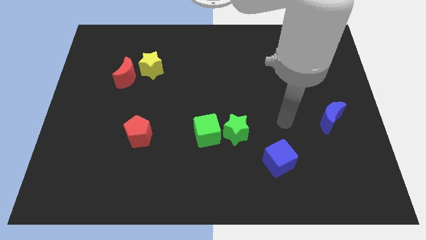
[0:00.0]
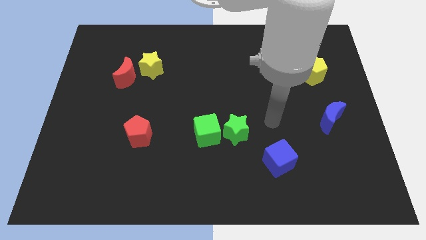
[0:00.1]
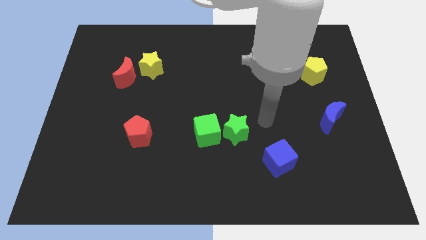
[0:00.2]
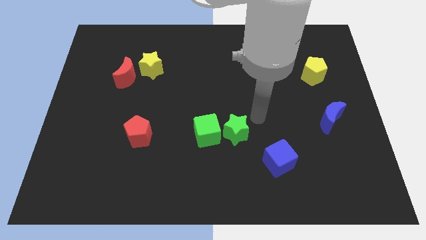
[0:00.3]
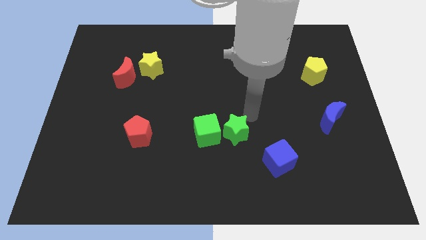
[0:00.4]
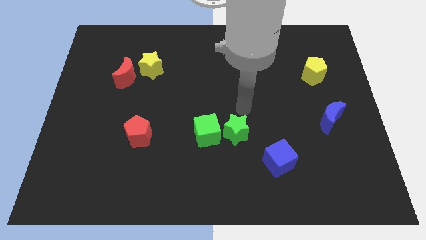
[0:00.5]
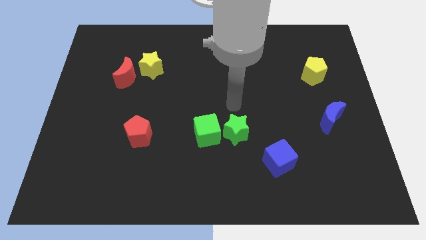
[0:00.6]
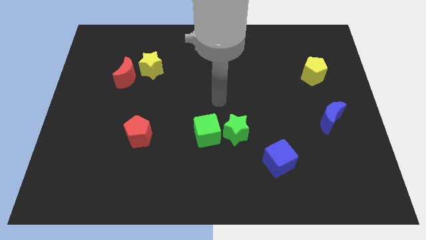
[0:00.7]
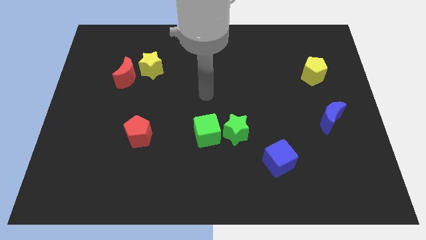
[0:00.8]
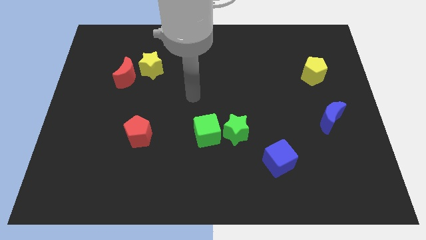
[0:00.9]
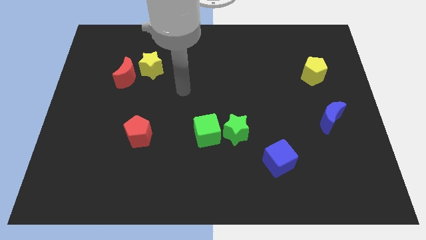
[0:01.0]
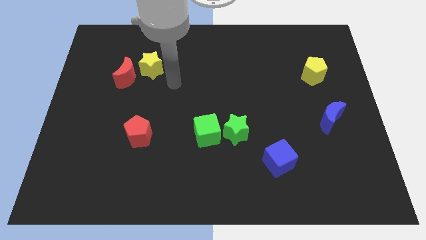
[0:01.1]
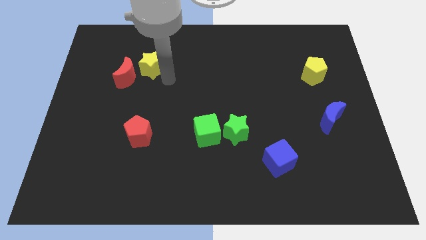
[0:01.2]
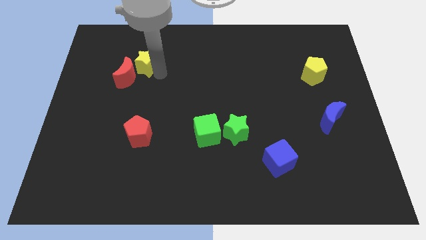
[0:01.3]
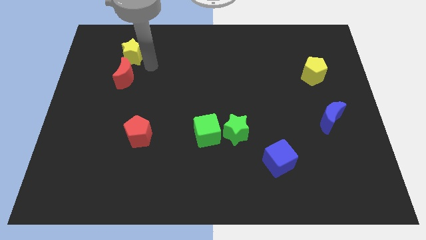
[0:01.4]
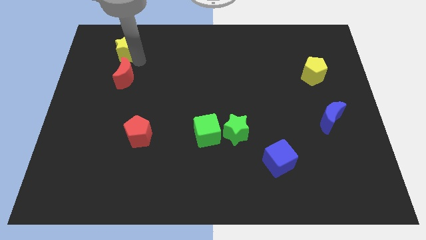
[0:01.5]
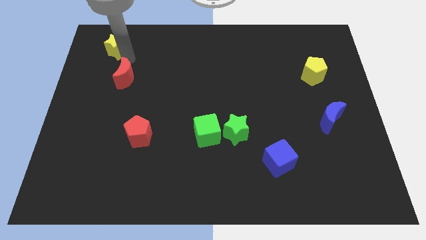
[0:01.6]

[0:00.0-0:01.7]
separate the red moon from the yellow star

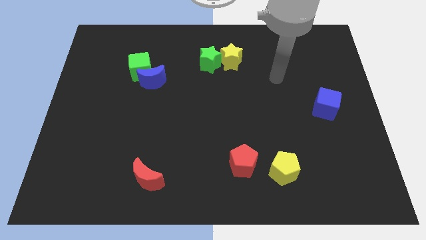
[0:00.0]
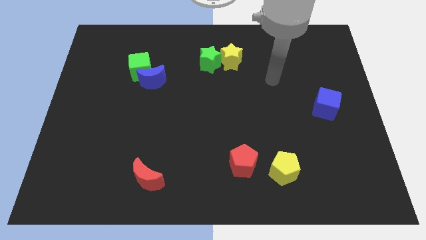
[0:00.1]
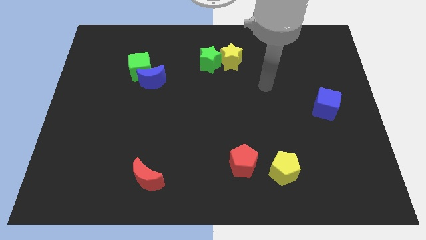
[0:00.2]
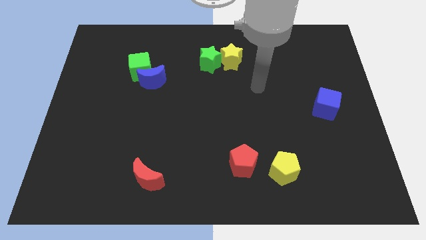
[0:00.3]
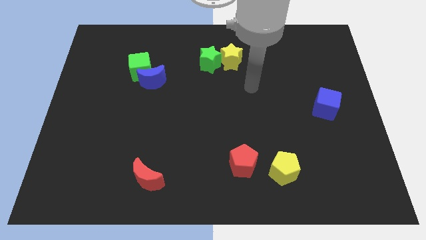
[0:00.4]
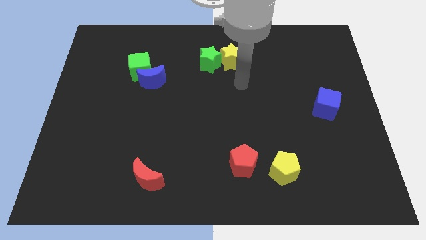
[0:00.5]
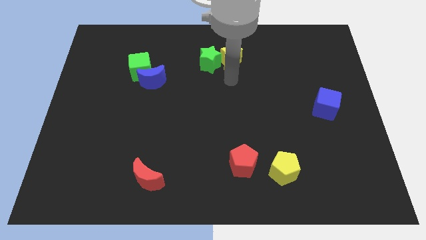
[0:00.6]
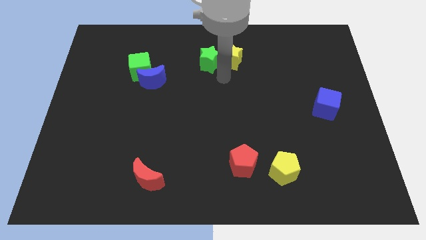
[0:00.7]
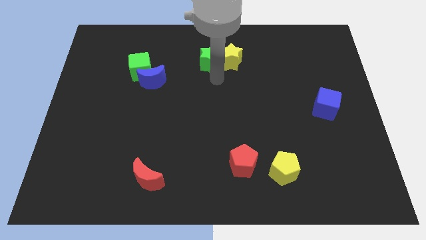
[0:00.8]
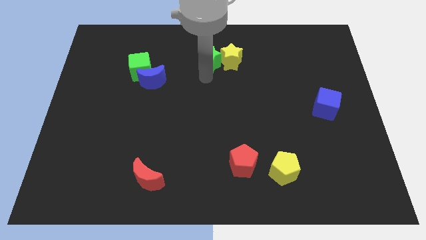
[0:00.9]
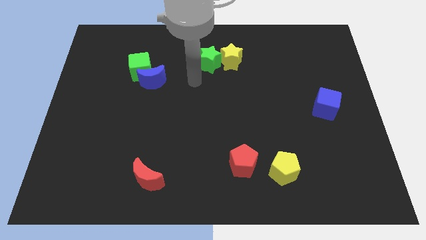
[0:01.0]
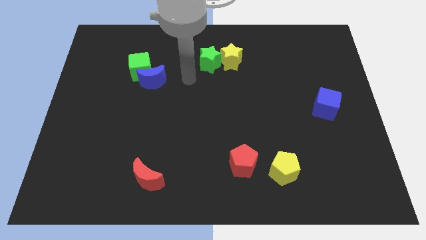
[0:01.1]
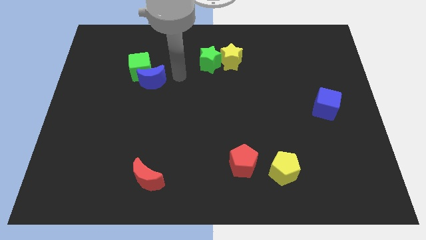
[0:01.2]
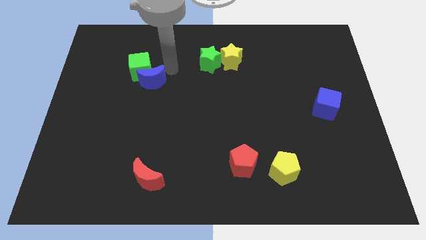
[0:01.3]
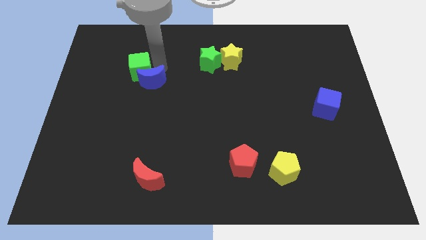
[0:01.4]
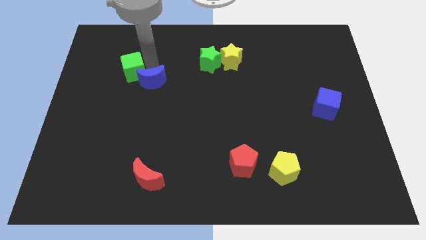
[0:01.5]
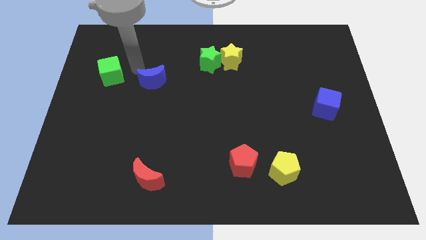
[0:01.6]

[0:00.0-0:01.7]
move the blue moon away from the green cube

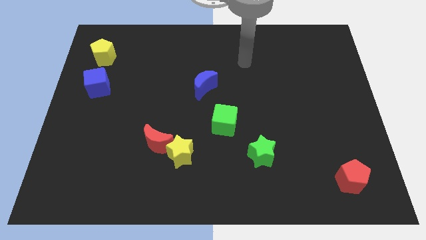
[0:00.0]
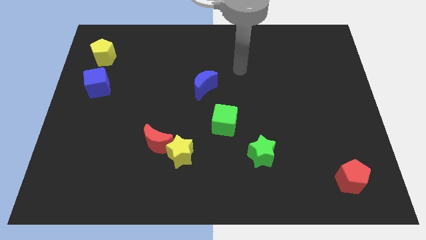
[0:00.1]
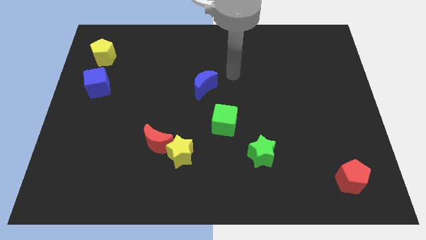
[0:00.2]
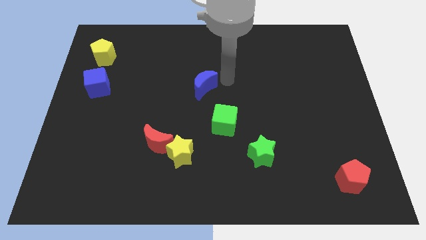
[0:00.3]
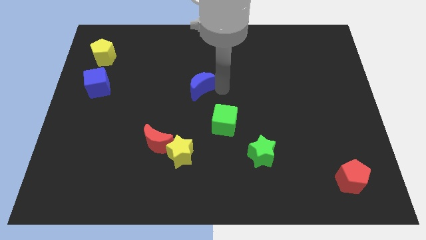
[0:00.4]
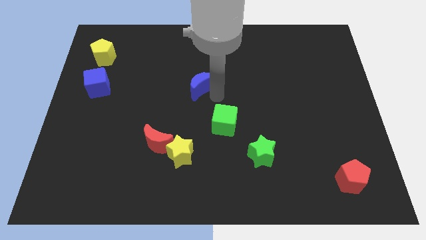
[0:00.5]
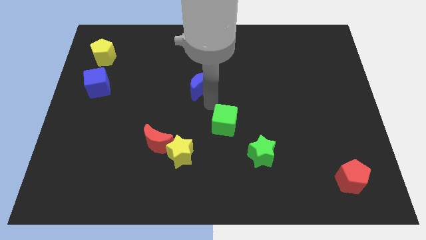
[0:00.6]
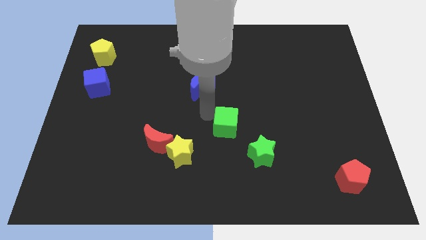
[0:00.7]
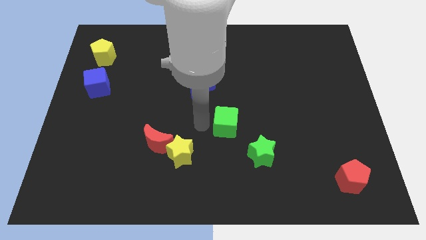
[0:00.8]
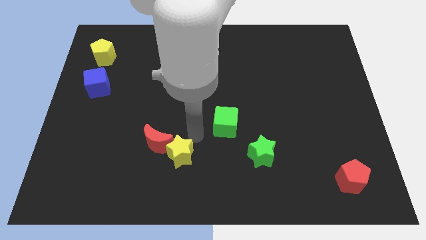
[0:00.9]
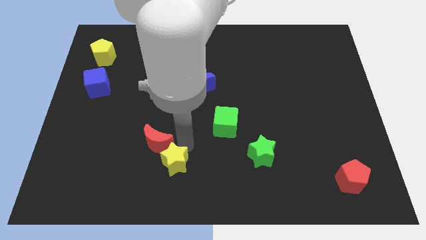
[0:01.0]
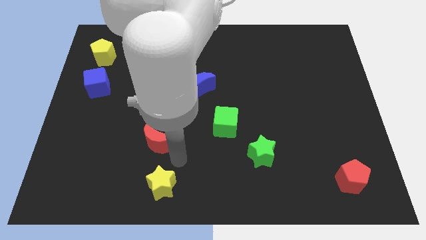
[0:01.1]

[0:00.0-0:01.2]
move the red moon away from the yellow star

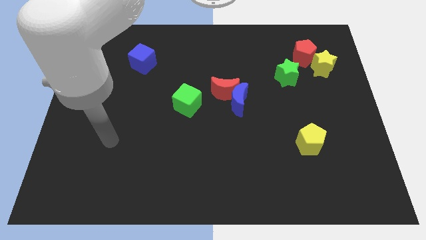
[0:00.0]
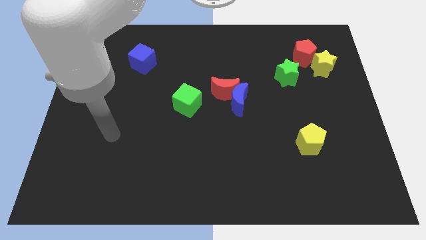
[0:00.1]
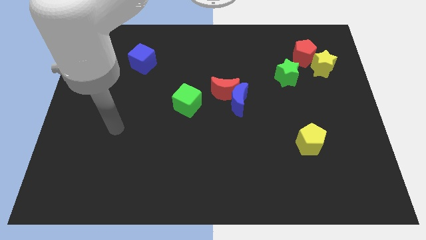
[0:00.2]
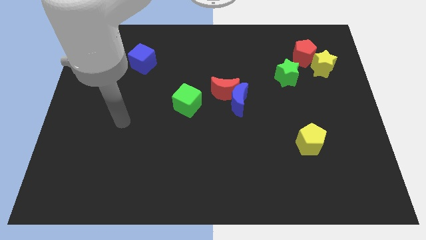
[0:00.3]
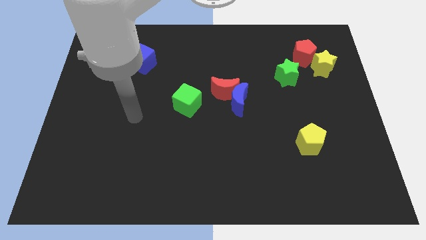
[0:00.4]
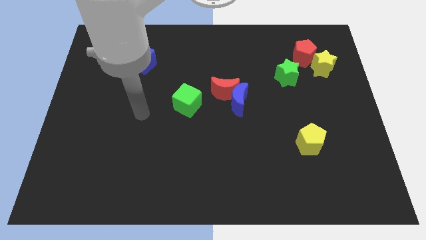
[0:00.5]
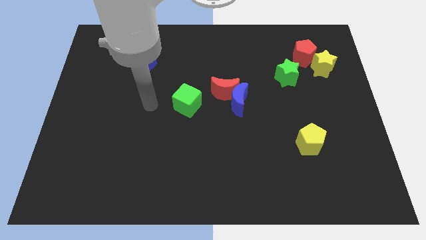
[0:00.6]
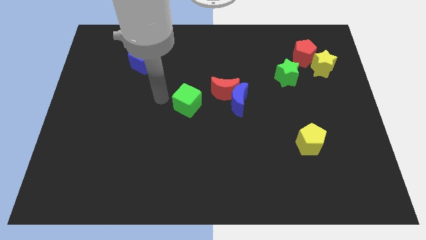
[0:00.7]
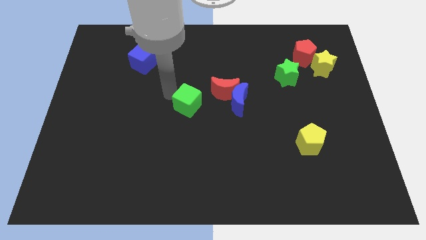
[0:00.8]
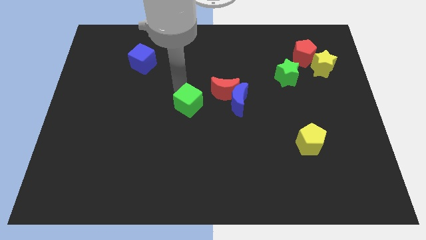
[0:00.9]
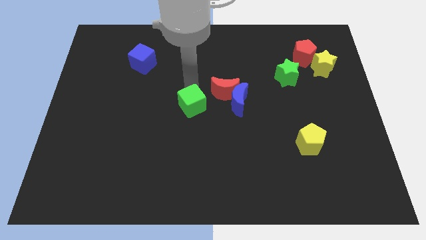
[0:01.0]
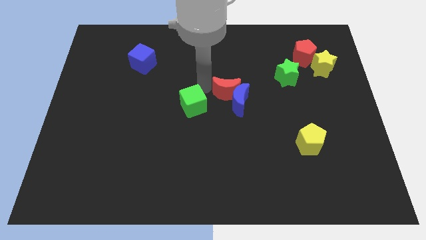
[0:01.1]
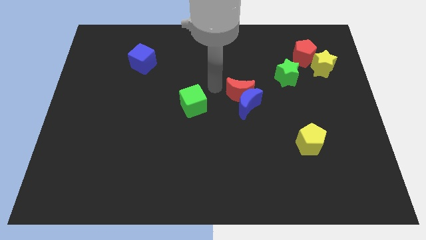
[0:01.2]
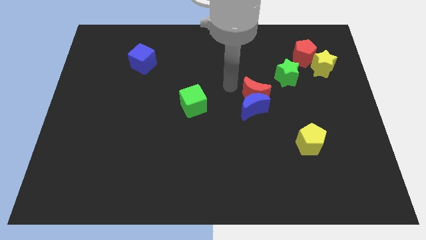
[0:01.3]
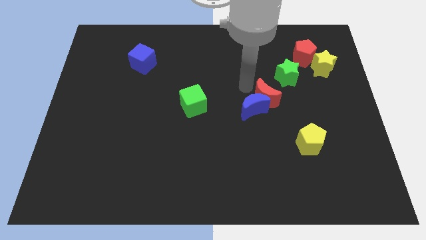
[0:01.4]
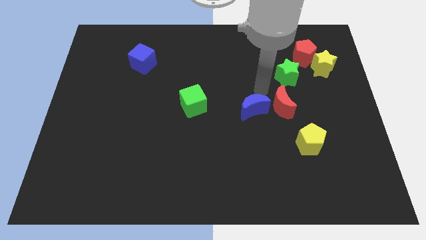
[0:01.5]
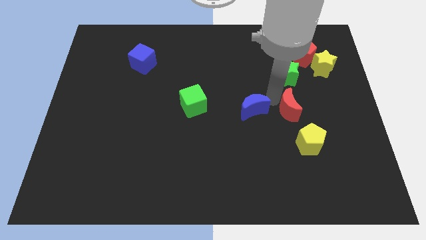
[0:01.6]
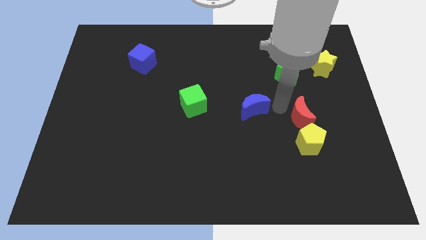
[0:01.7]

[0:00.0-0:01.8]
separate the blue moon from the red moon

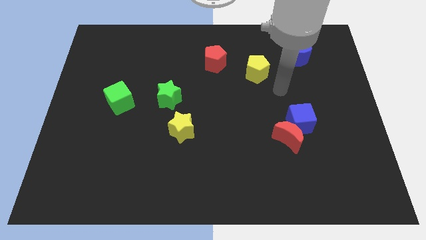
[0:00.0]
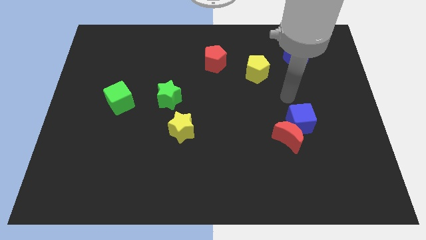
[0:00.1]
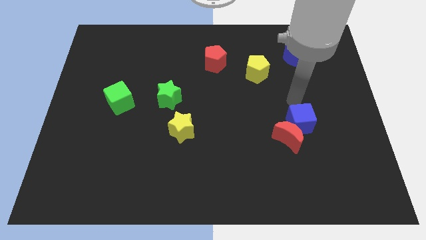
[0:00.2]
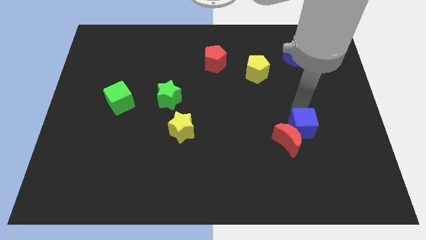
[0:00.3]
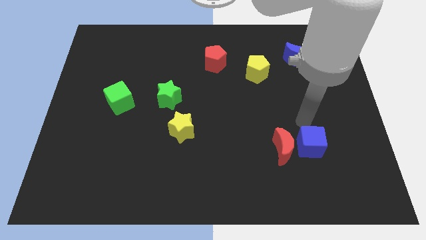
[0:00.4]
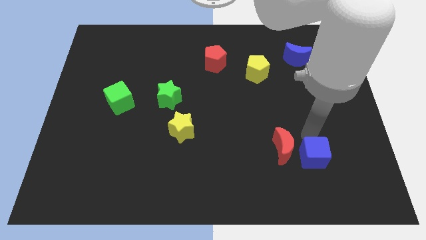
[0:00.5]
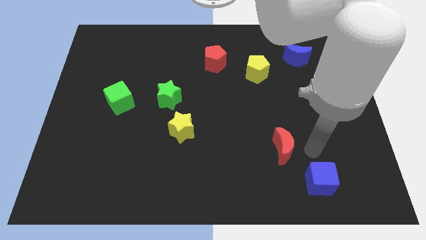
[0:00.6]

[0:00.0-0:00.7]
pull the red moon apart from the blue cube

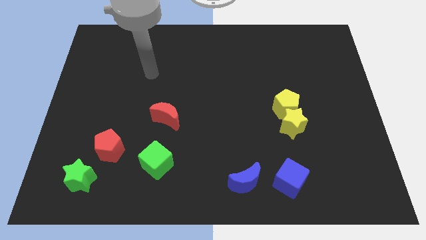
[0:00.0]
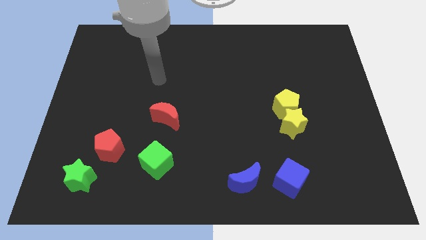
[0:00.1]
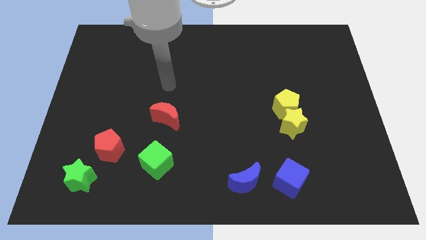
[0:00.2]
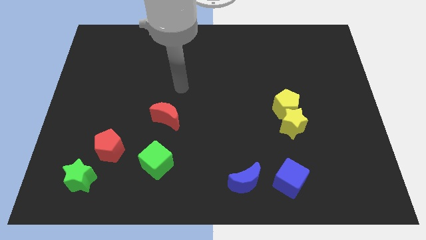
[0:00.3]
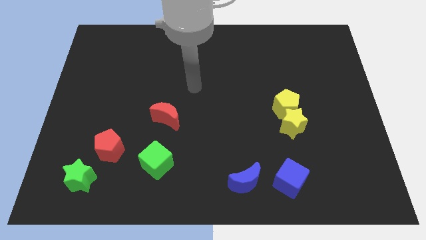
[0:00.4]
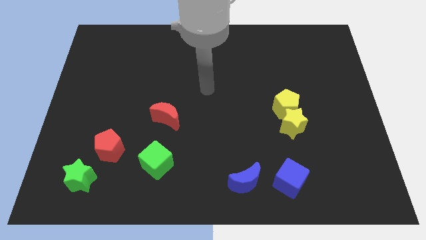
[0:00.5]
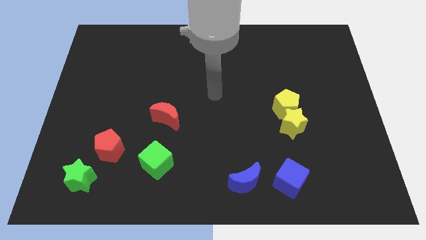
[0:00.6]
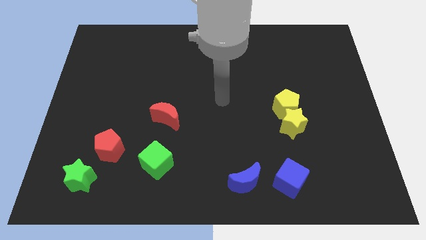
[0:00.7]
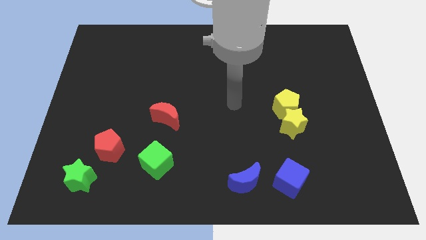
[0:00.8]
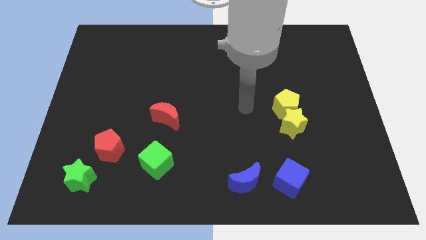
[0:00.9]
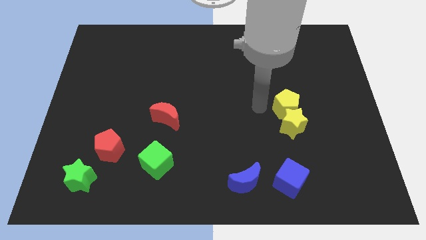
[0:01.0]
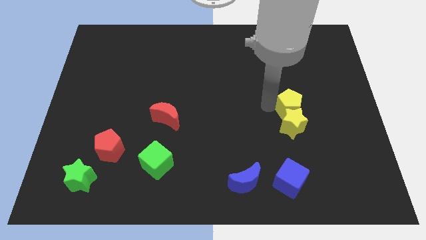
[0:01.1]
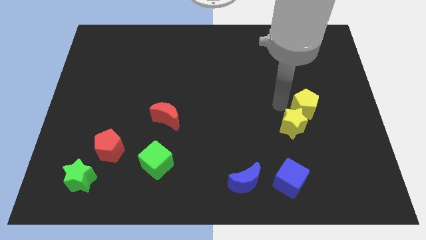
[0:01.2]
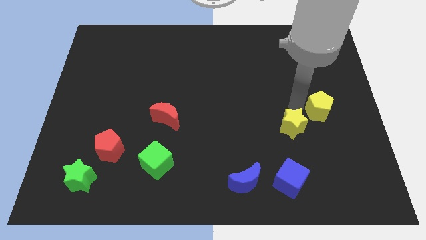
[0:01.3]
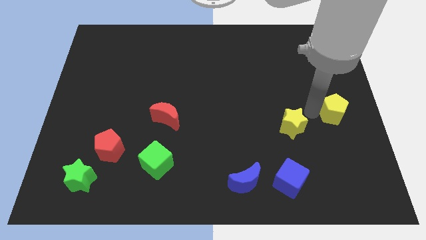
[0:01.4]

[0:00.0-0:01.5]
separate the yellow star from the yellow pentagon

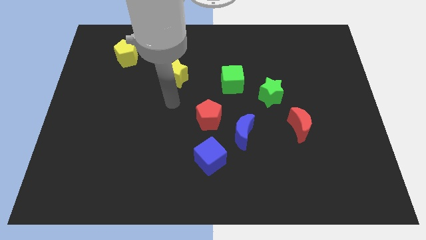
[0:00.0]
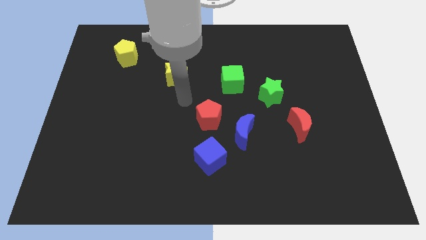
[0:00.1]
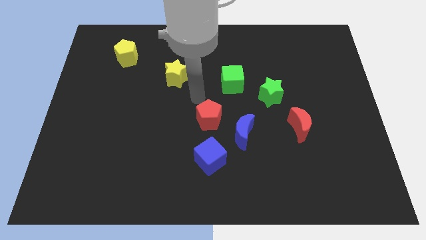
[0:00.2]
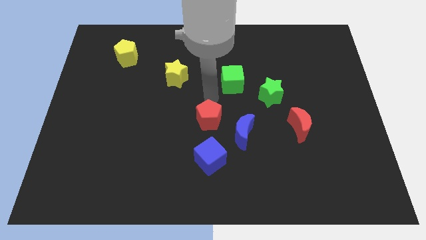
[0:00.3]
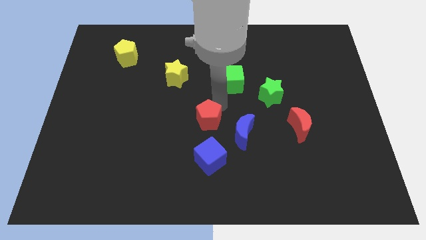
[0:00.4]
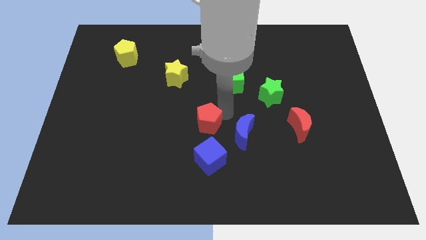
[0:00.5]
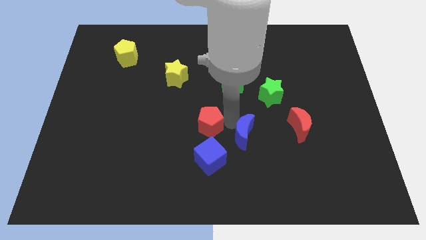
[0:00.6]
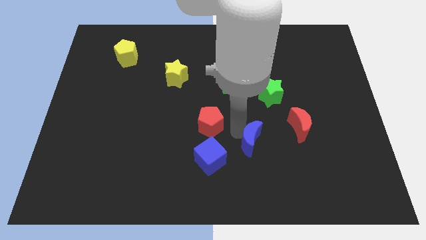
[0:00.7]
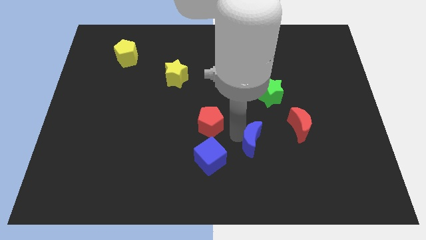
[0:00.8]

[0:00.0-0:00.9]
separate the red pentagon from the blue moon
